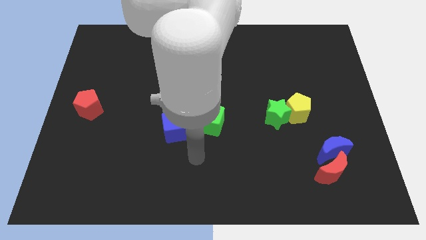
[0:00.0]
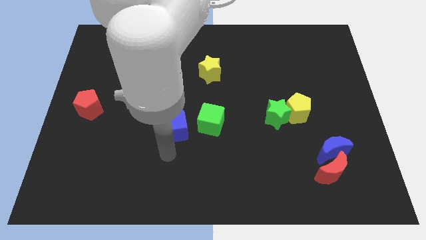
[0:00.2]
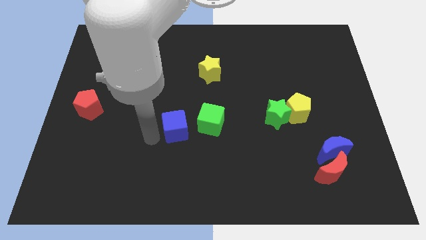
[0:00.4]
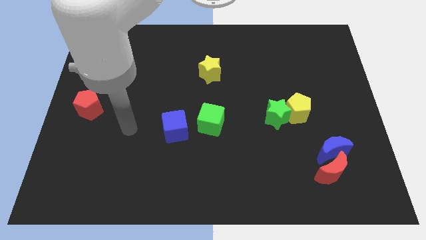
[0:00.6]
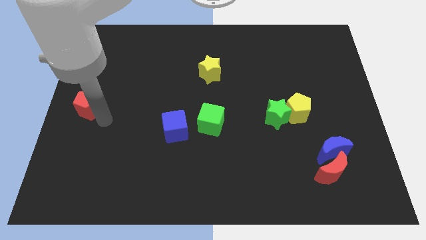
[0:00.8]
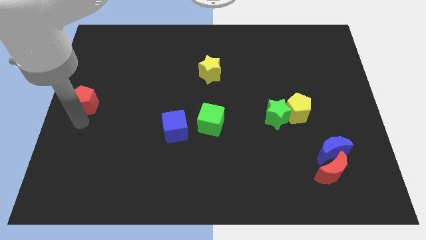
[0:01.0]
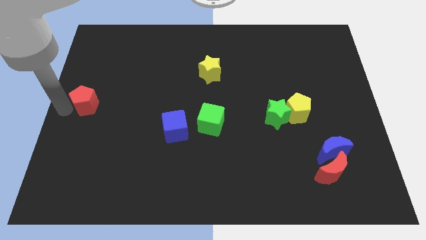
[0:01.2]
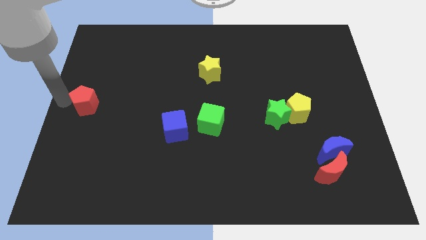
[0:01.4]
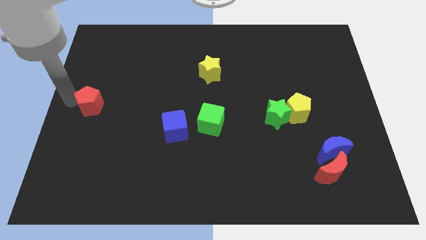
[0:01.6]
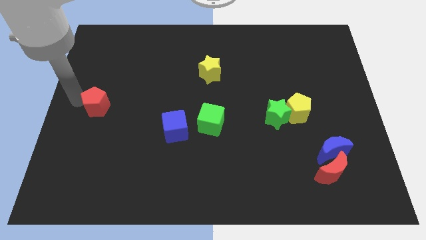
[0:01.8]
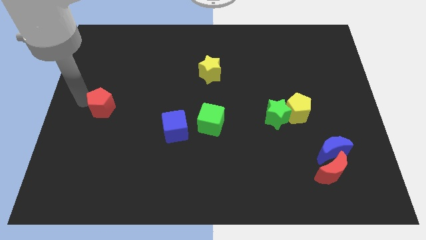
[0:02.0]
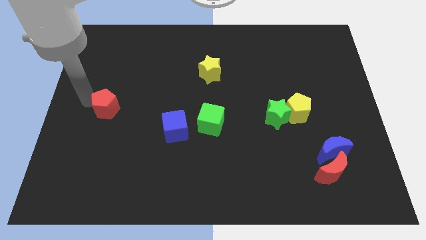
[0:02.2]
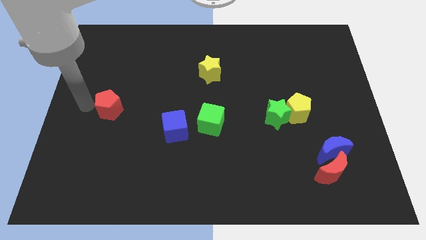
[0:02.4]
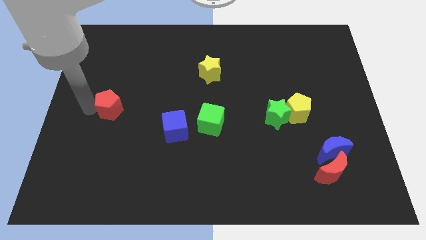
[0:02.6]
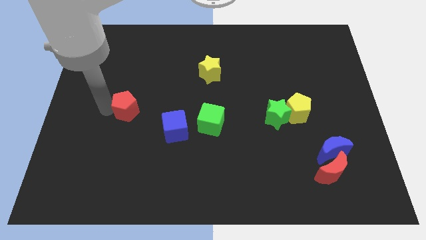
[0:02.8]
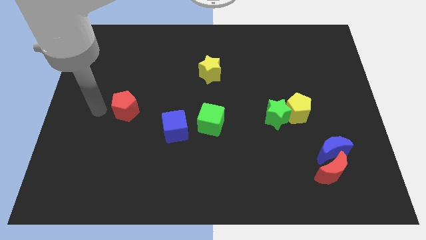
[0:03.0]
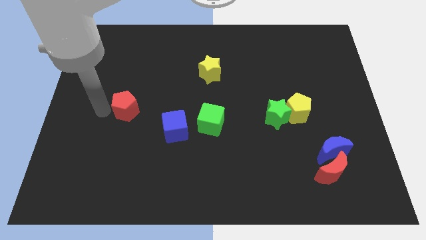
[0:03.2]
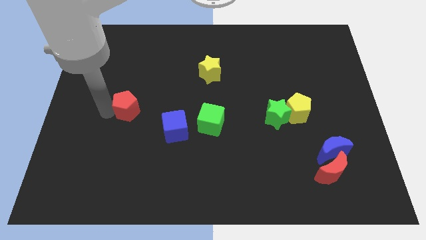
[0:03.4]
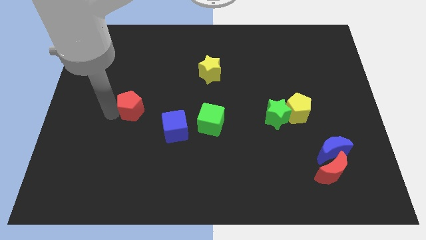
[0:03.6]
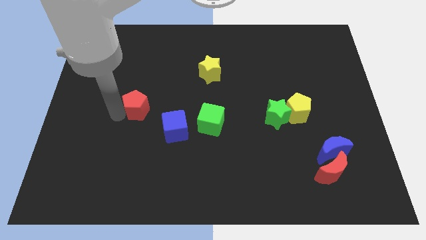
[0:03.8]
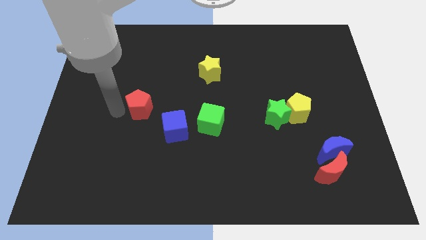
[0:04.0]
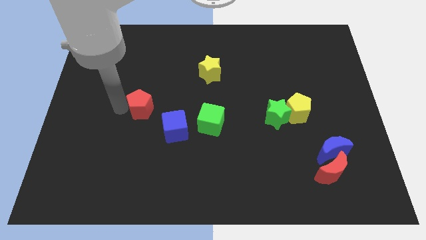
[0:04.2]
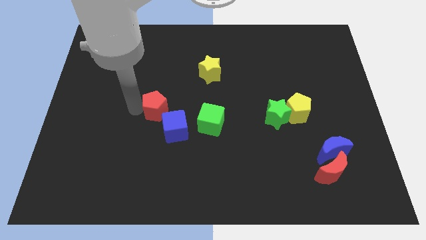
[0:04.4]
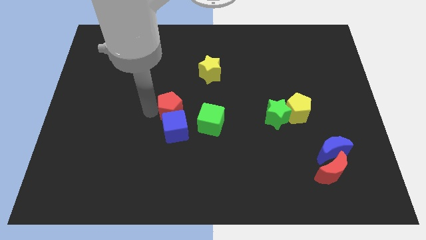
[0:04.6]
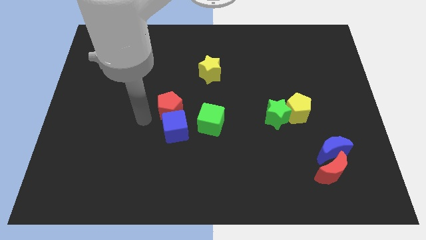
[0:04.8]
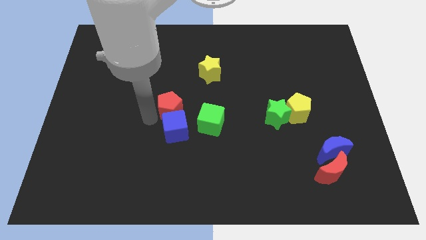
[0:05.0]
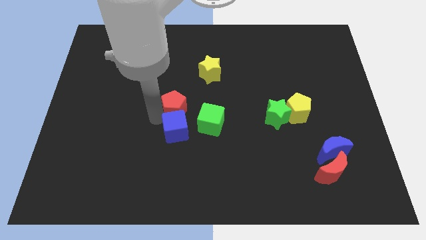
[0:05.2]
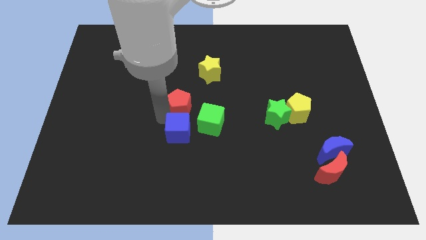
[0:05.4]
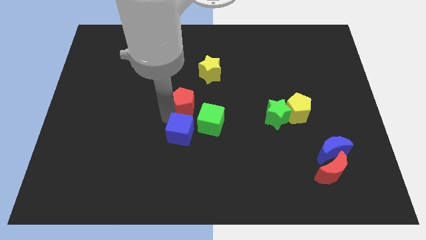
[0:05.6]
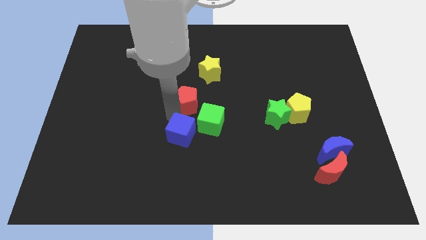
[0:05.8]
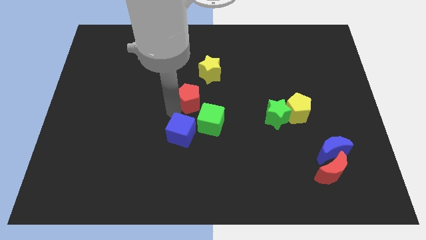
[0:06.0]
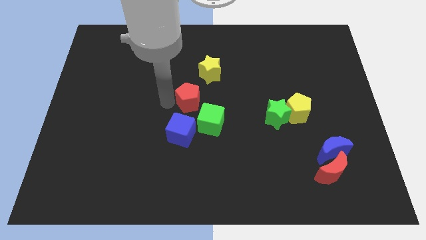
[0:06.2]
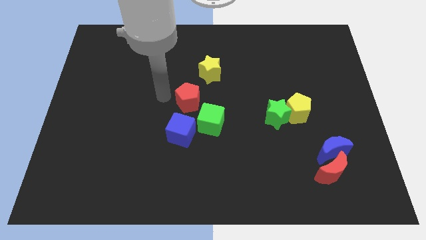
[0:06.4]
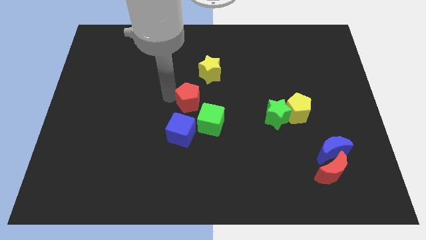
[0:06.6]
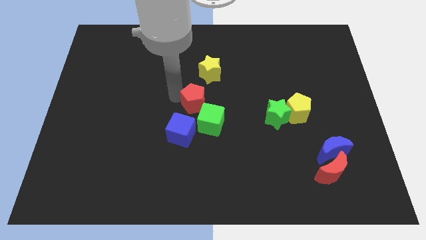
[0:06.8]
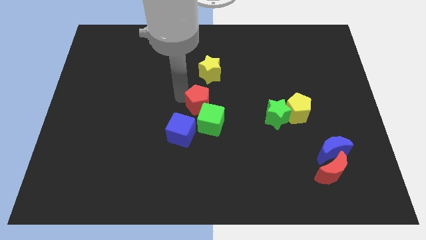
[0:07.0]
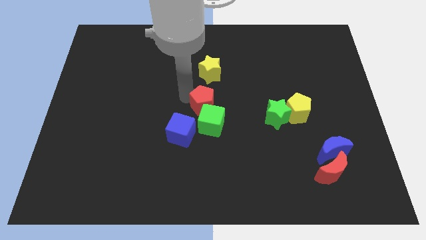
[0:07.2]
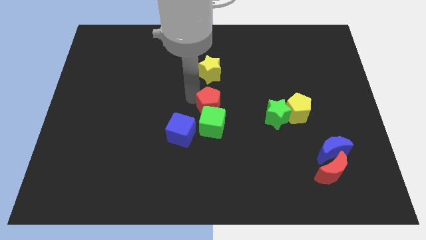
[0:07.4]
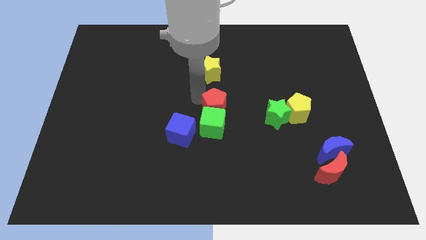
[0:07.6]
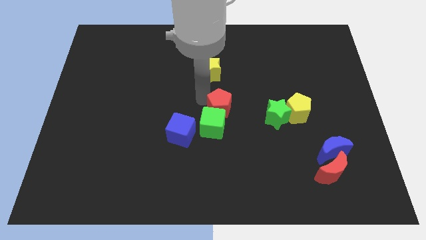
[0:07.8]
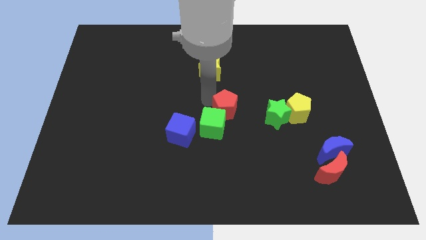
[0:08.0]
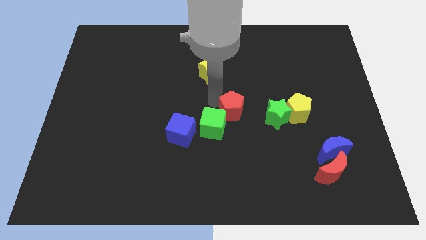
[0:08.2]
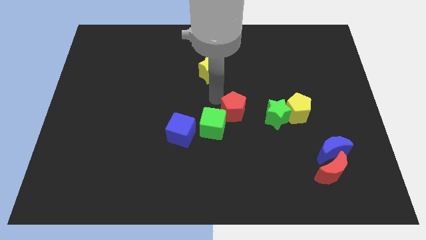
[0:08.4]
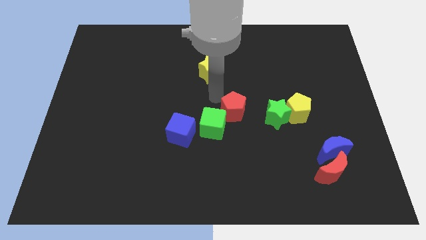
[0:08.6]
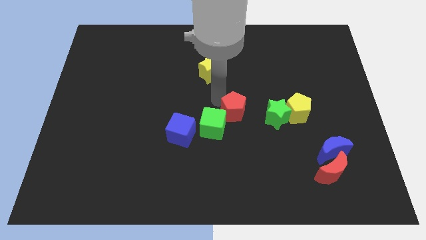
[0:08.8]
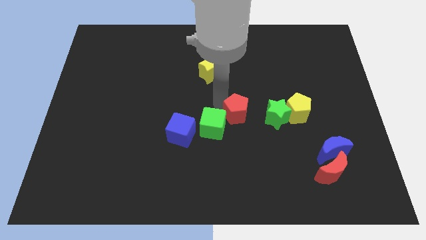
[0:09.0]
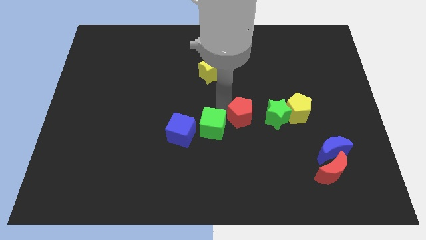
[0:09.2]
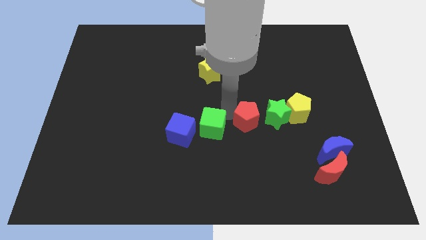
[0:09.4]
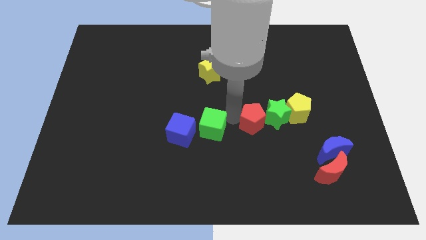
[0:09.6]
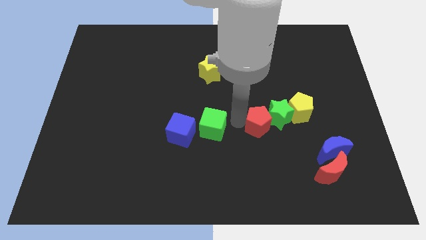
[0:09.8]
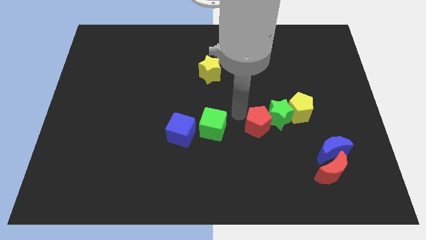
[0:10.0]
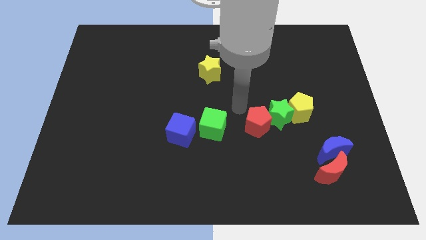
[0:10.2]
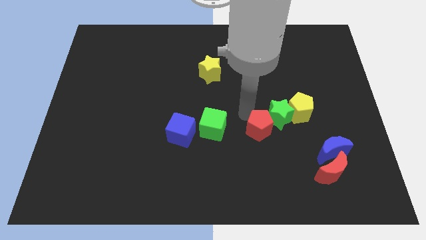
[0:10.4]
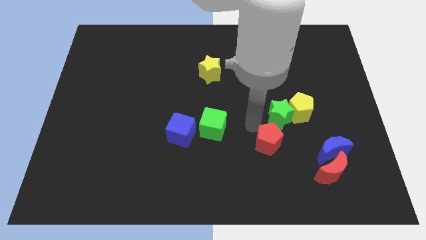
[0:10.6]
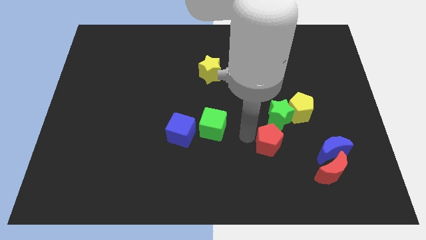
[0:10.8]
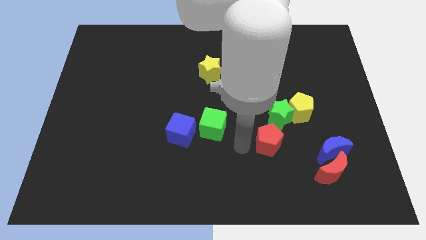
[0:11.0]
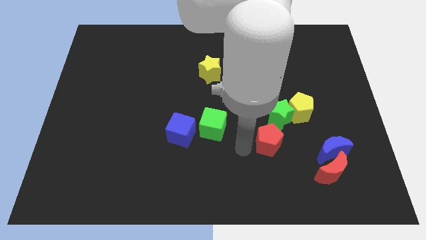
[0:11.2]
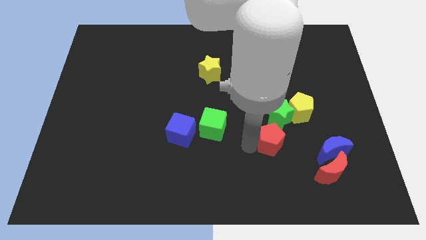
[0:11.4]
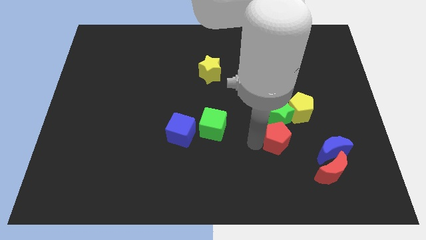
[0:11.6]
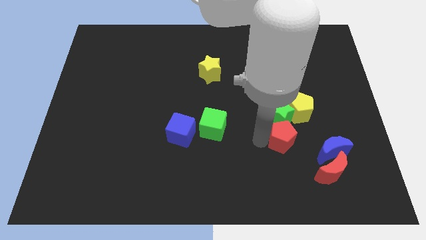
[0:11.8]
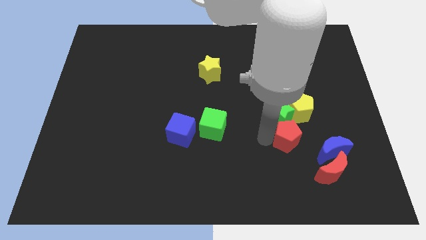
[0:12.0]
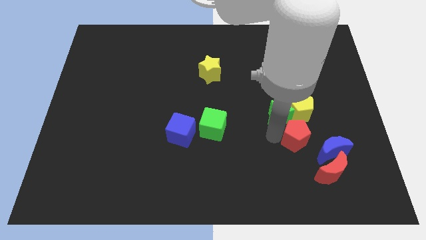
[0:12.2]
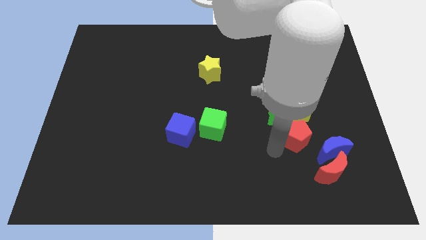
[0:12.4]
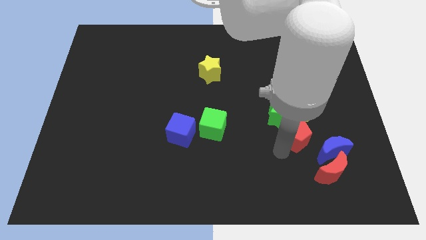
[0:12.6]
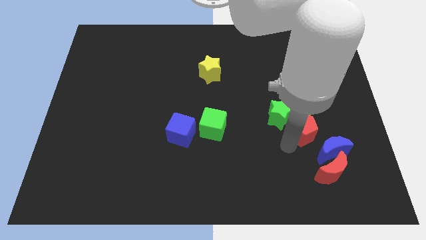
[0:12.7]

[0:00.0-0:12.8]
move the red pentagon to the right side of the green star

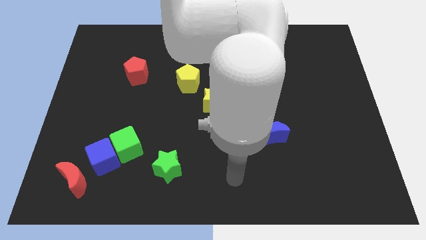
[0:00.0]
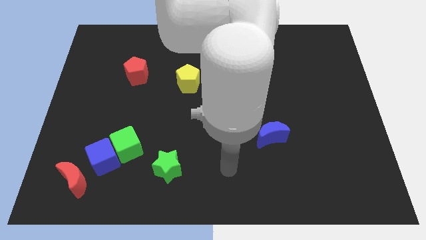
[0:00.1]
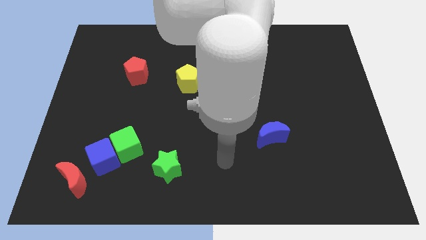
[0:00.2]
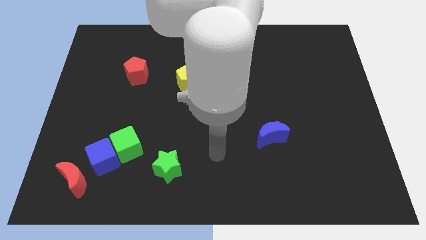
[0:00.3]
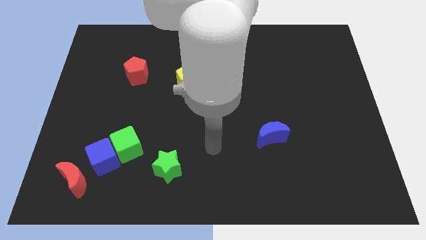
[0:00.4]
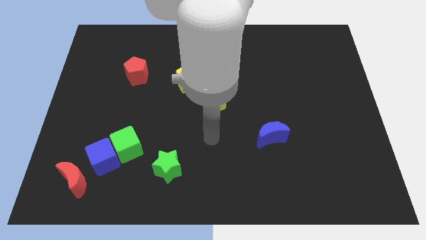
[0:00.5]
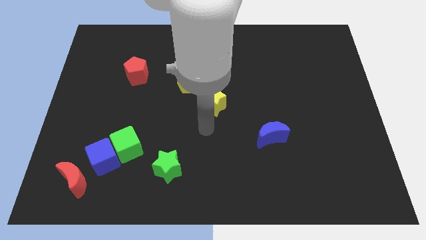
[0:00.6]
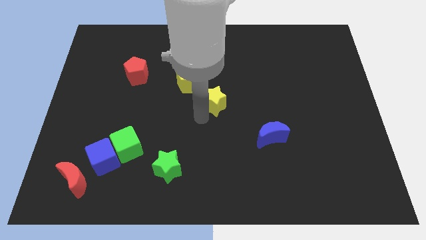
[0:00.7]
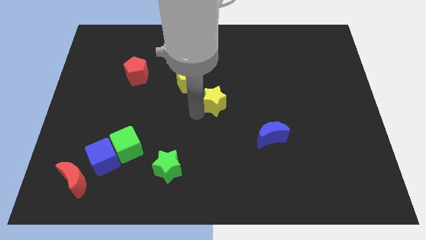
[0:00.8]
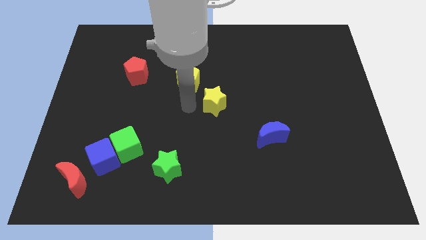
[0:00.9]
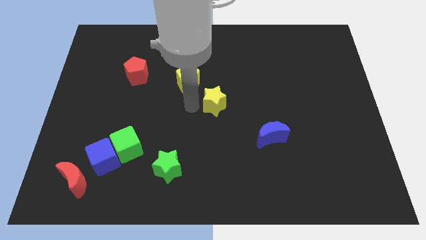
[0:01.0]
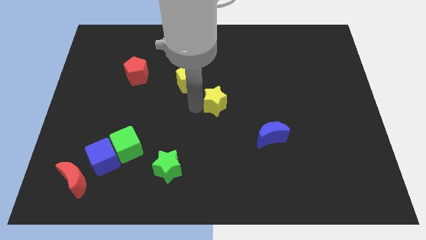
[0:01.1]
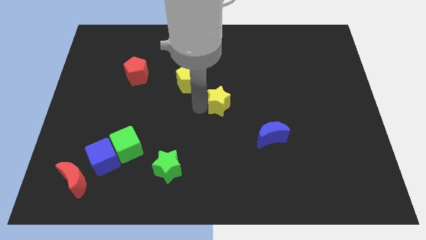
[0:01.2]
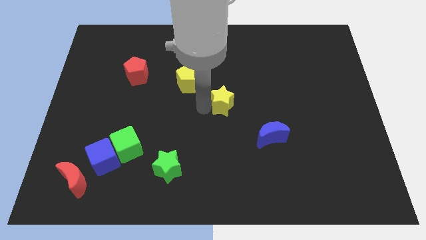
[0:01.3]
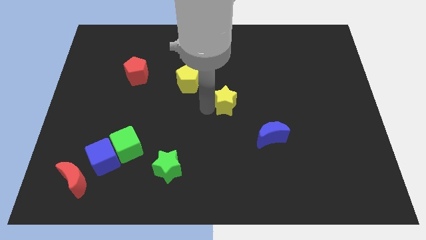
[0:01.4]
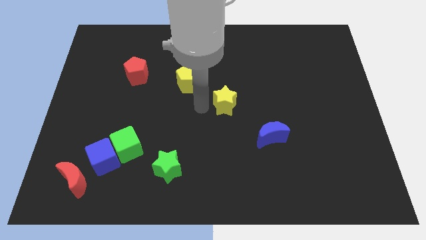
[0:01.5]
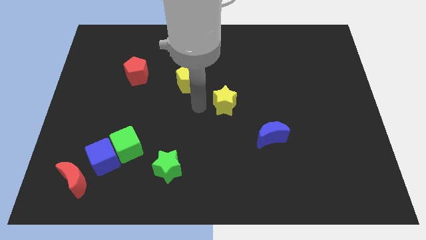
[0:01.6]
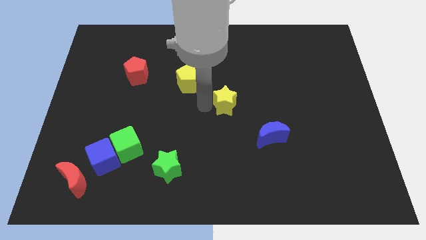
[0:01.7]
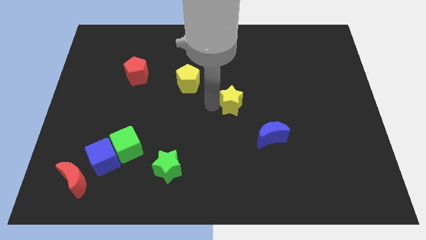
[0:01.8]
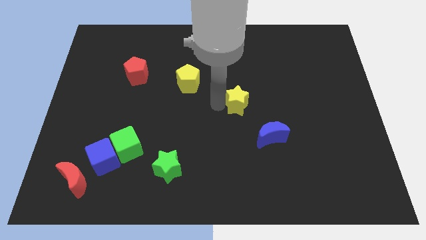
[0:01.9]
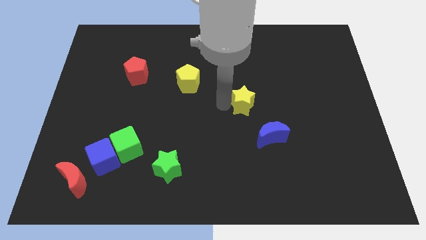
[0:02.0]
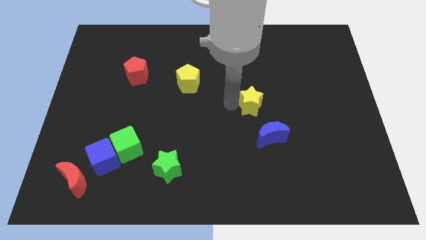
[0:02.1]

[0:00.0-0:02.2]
slide the yellow star above the blue moon
